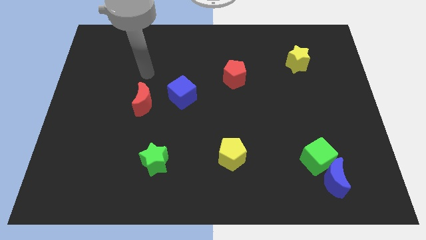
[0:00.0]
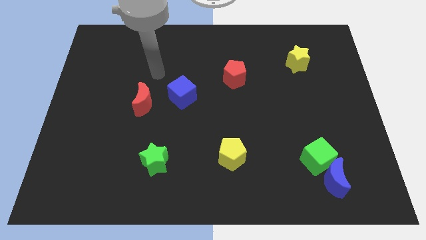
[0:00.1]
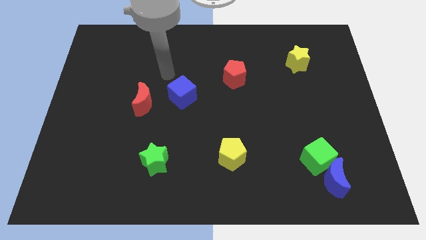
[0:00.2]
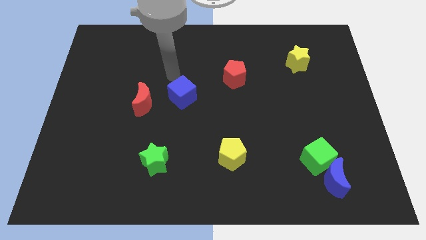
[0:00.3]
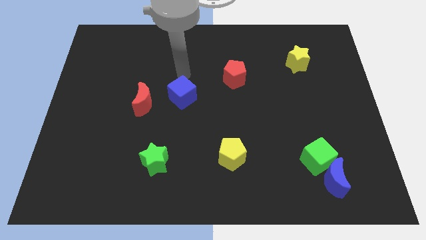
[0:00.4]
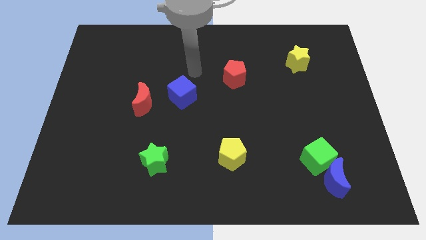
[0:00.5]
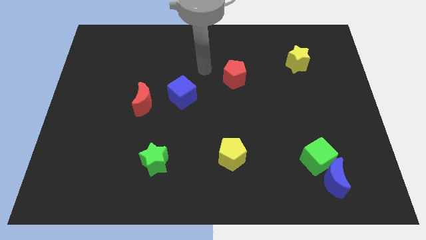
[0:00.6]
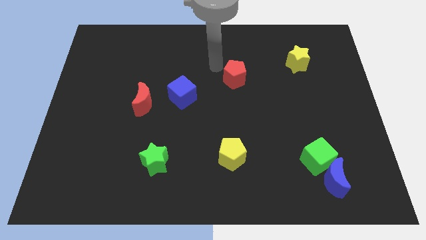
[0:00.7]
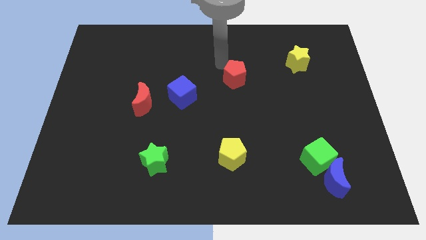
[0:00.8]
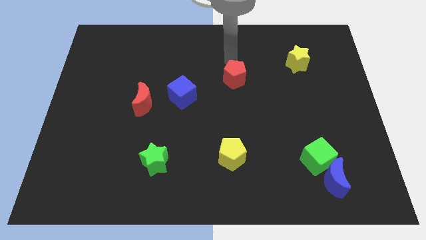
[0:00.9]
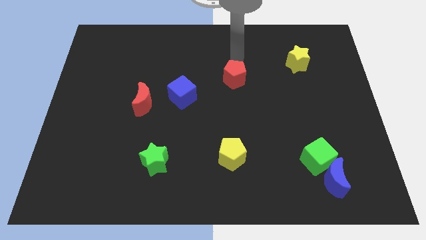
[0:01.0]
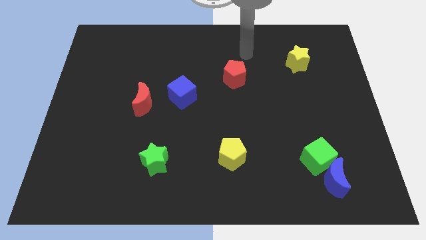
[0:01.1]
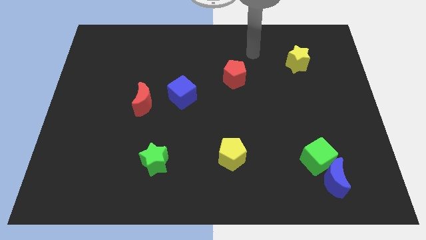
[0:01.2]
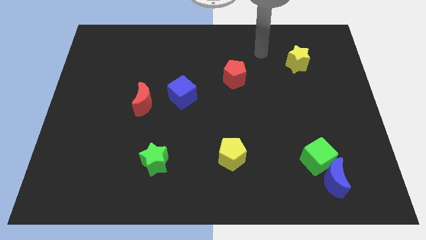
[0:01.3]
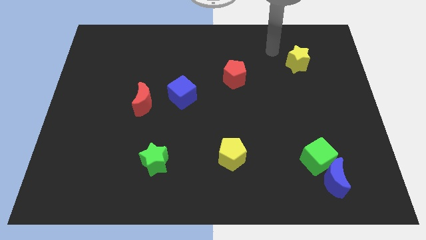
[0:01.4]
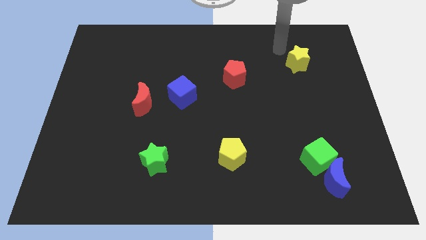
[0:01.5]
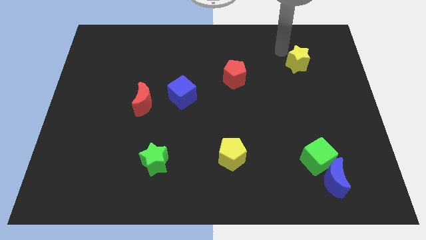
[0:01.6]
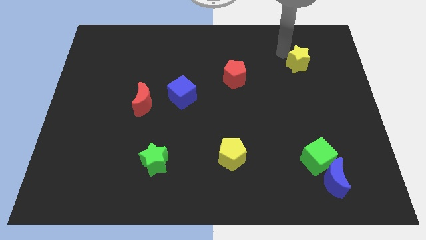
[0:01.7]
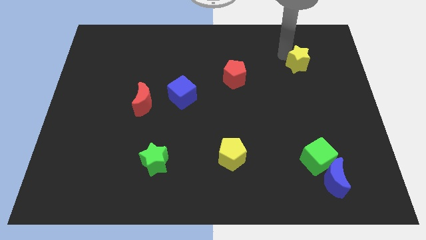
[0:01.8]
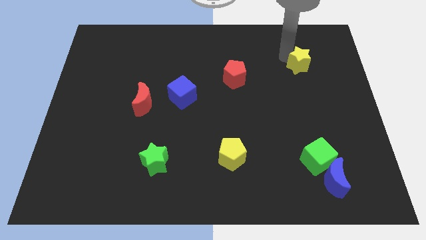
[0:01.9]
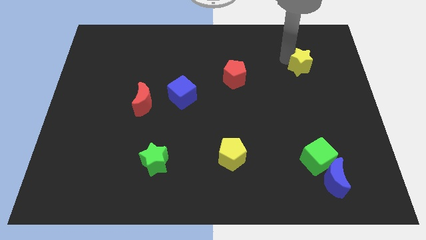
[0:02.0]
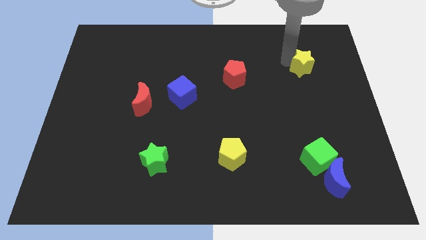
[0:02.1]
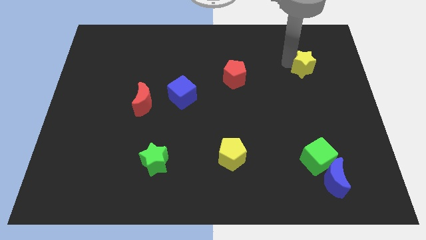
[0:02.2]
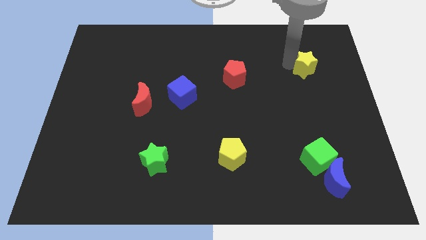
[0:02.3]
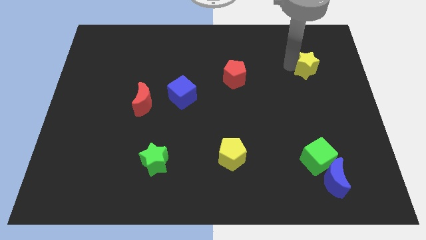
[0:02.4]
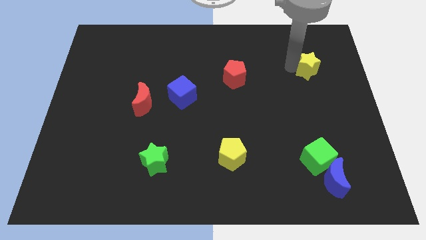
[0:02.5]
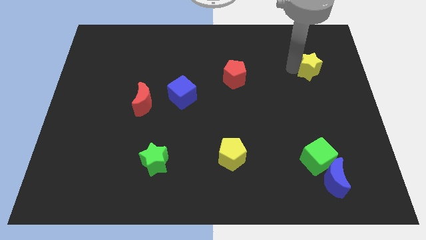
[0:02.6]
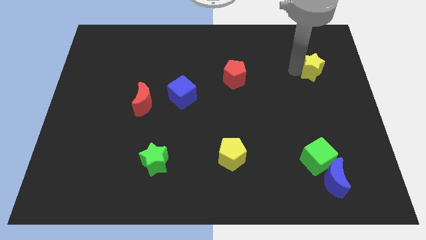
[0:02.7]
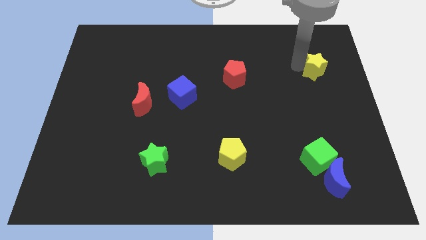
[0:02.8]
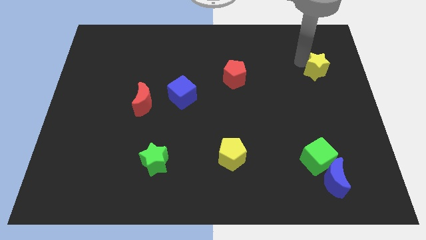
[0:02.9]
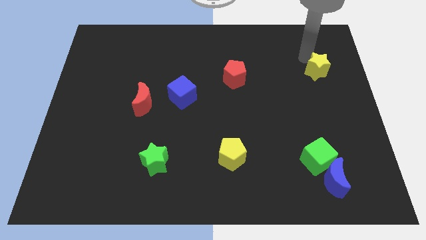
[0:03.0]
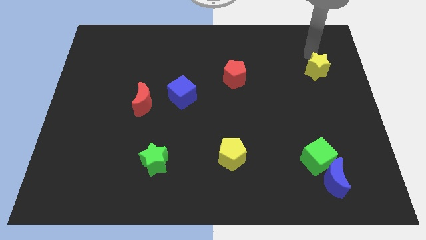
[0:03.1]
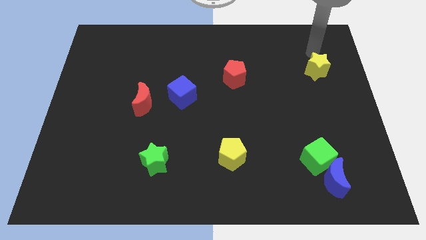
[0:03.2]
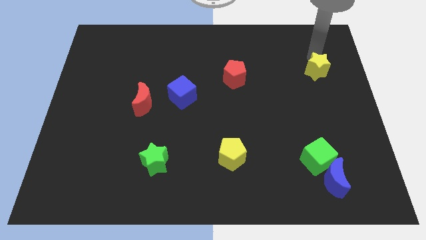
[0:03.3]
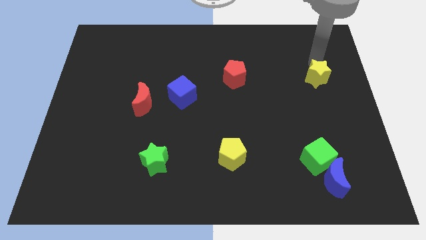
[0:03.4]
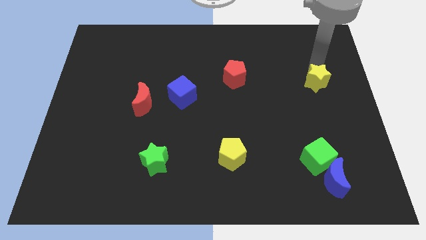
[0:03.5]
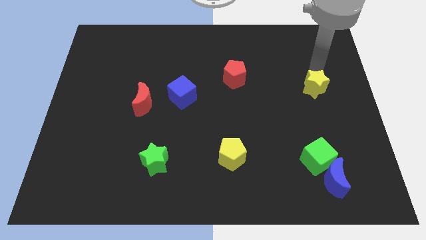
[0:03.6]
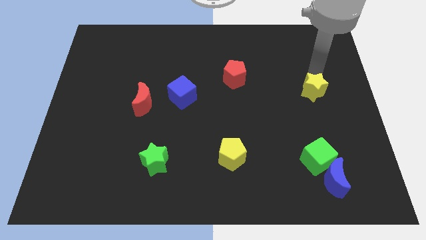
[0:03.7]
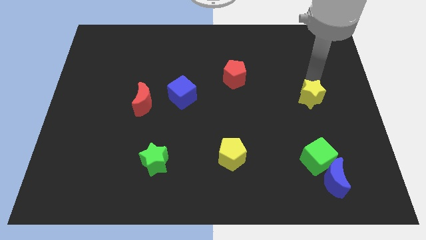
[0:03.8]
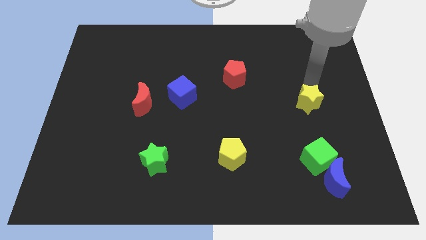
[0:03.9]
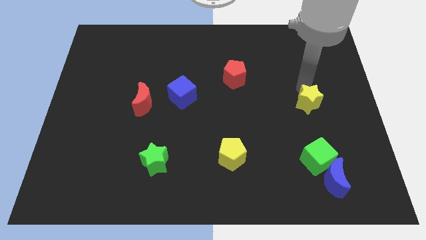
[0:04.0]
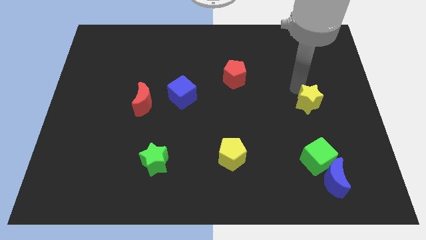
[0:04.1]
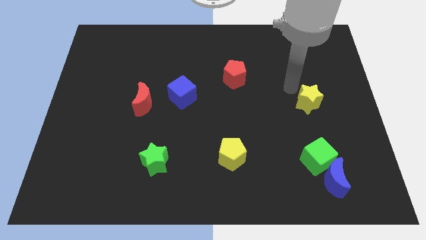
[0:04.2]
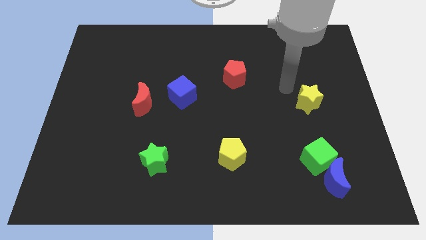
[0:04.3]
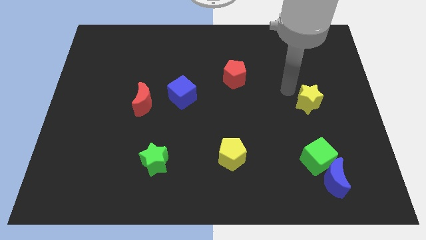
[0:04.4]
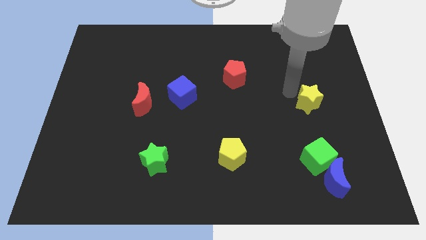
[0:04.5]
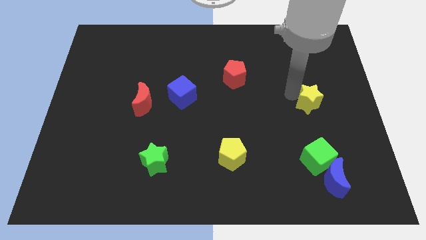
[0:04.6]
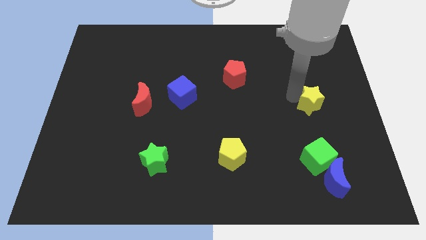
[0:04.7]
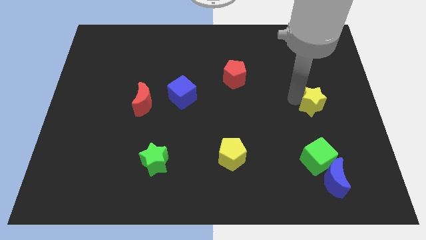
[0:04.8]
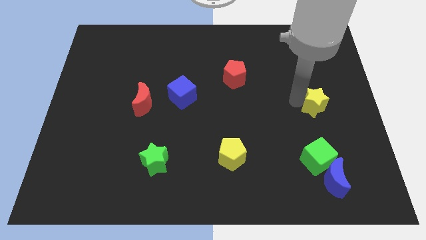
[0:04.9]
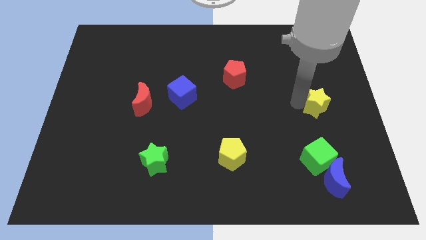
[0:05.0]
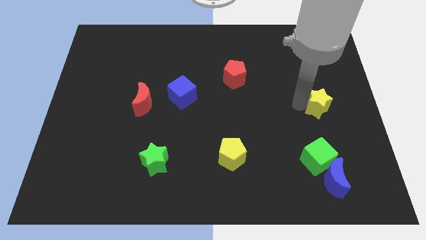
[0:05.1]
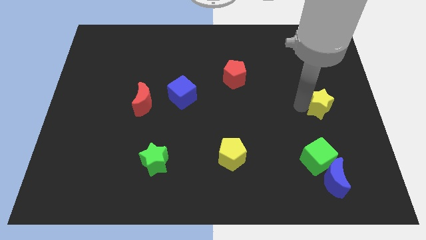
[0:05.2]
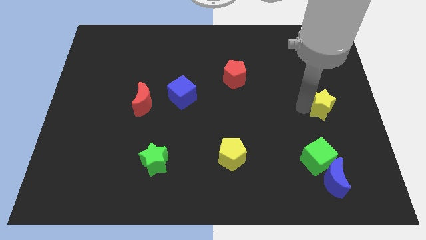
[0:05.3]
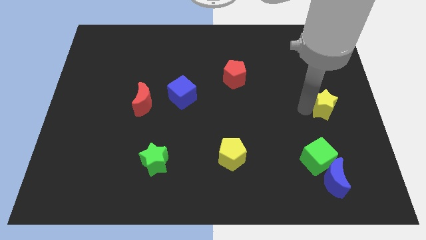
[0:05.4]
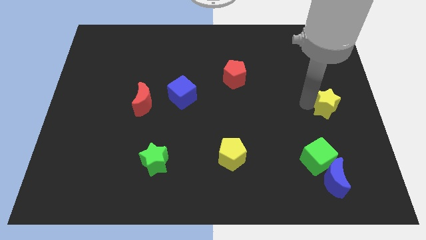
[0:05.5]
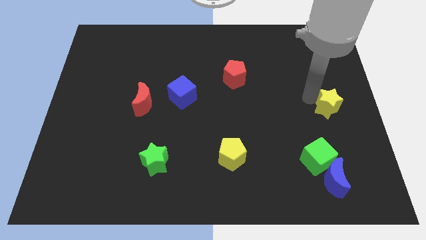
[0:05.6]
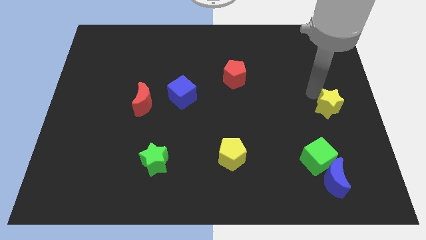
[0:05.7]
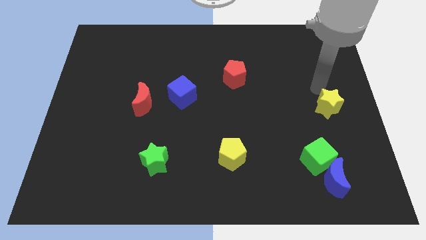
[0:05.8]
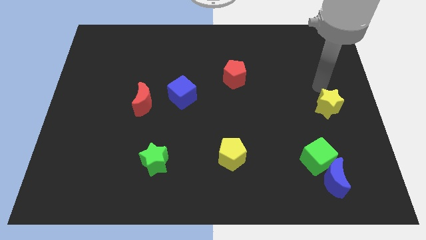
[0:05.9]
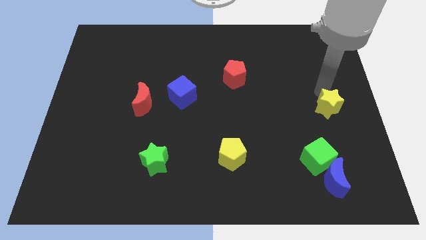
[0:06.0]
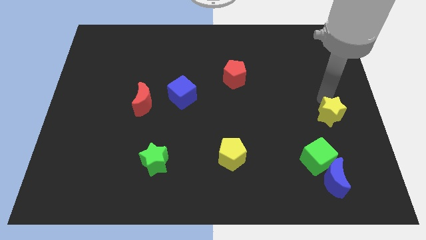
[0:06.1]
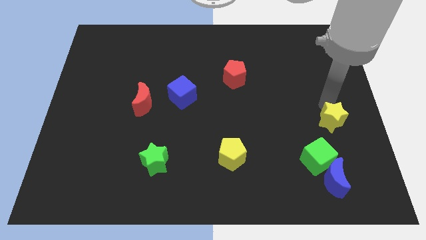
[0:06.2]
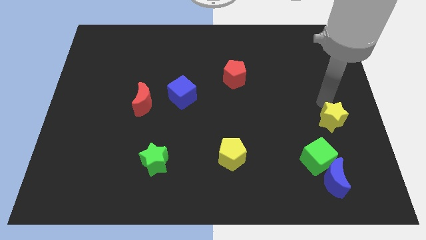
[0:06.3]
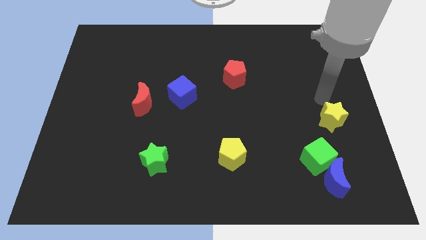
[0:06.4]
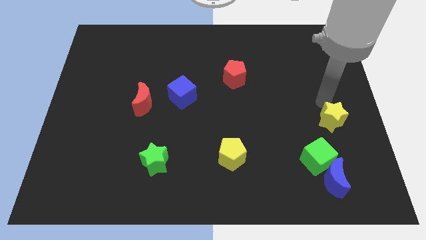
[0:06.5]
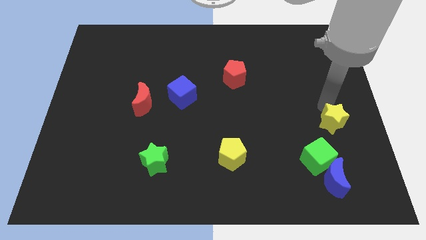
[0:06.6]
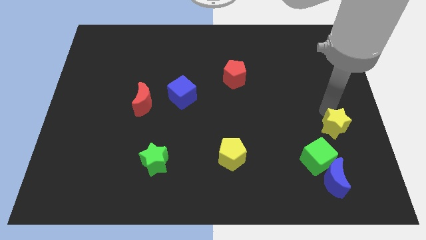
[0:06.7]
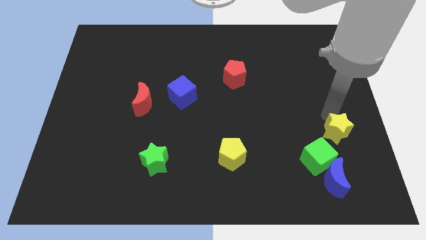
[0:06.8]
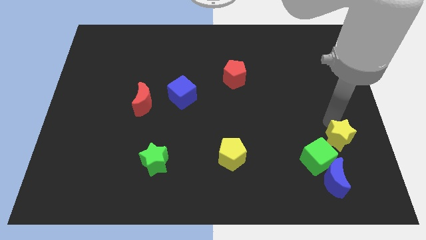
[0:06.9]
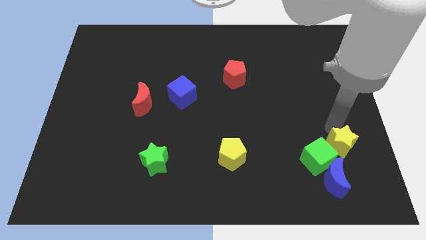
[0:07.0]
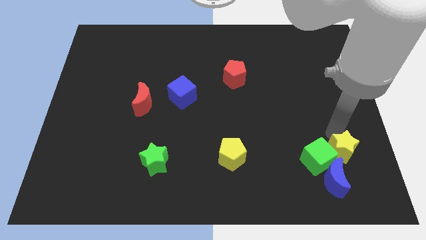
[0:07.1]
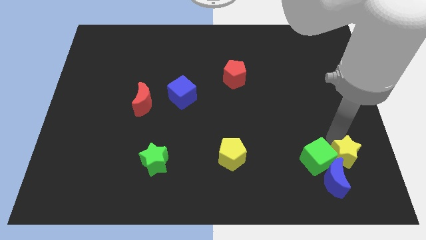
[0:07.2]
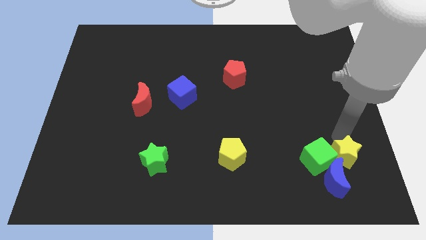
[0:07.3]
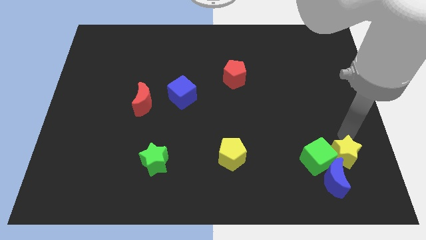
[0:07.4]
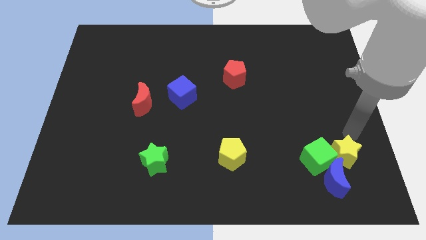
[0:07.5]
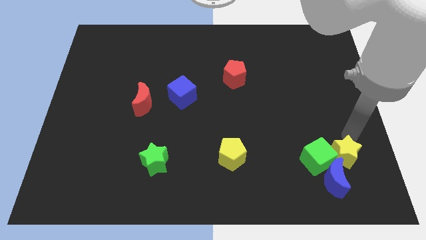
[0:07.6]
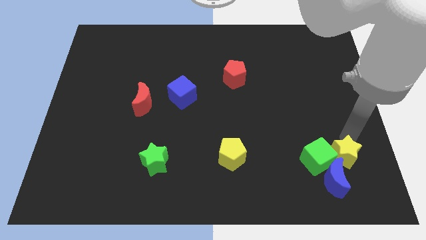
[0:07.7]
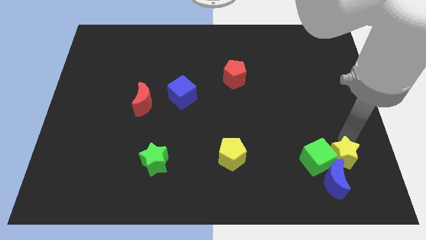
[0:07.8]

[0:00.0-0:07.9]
move the yellow star to the blue moon
